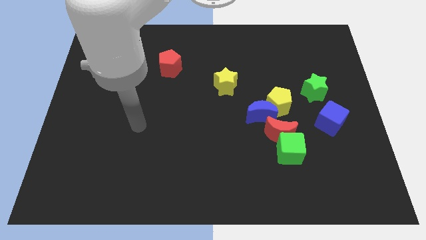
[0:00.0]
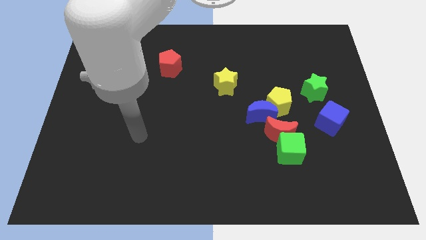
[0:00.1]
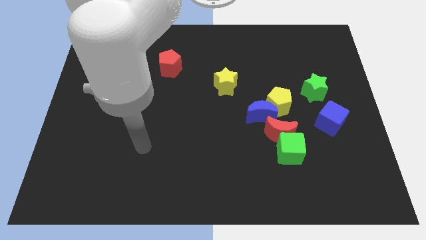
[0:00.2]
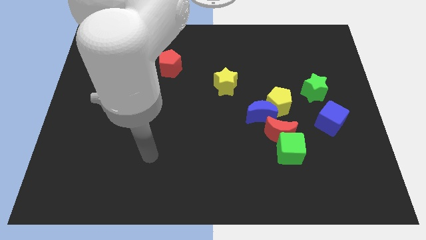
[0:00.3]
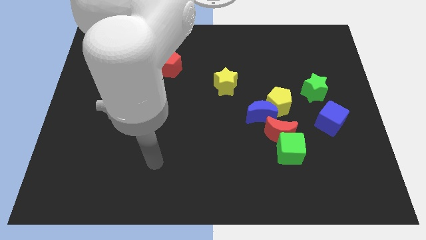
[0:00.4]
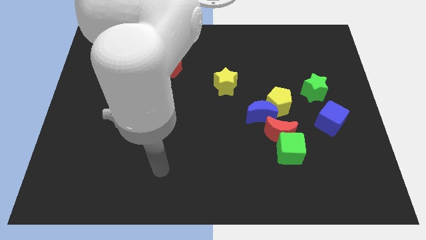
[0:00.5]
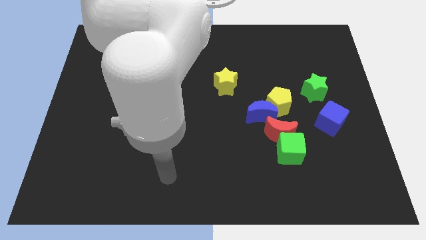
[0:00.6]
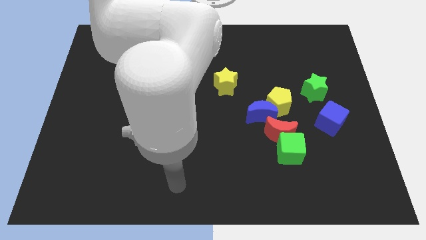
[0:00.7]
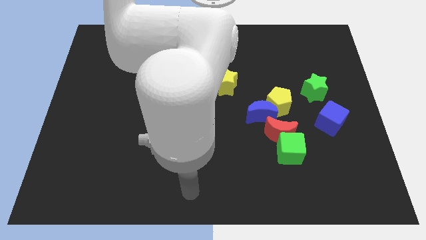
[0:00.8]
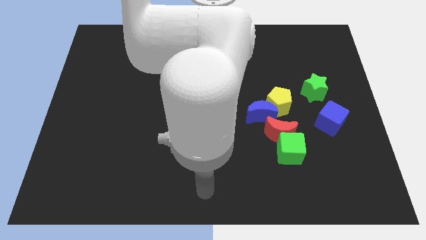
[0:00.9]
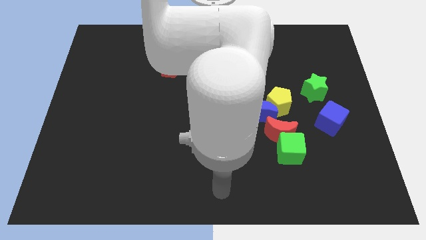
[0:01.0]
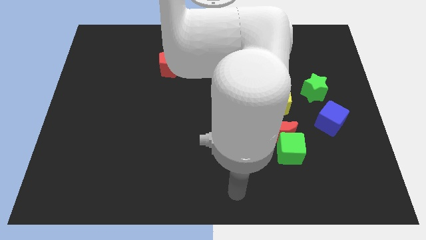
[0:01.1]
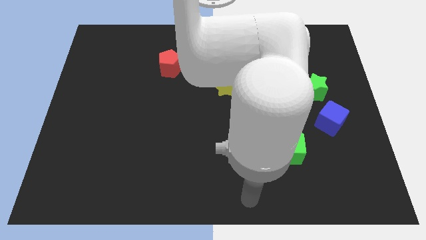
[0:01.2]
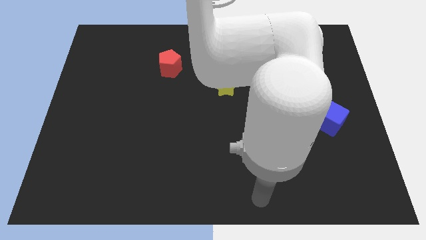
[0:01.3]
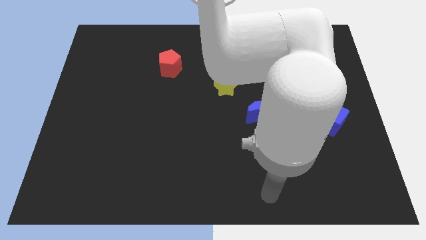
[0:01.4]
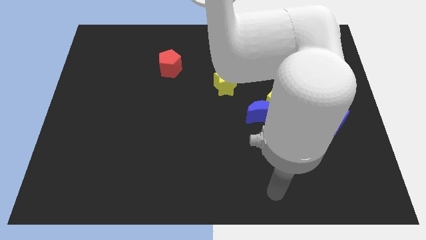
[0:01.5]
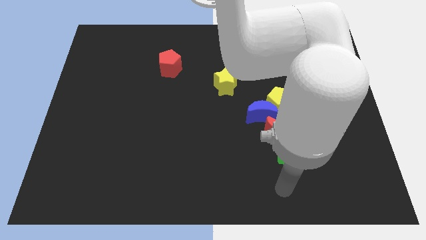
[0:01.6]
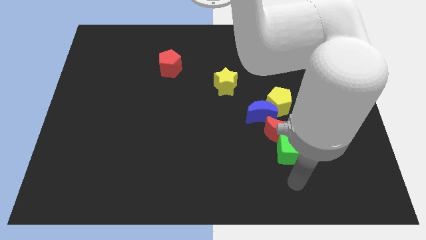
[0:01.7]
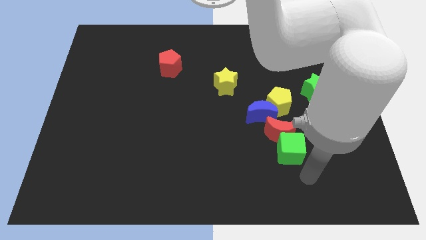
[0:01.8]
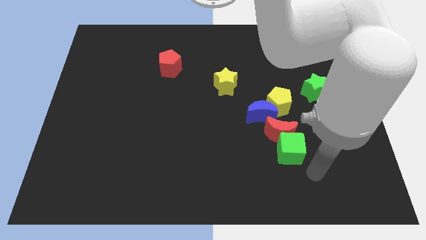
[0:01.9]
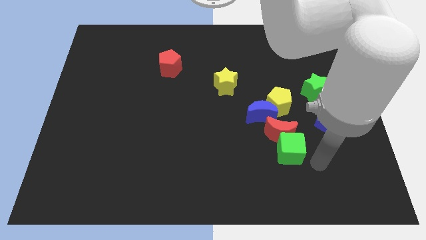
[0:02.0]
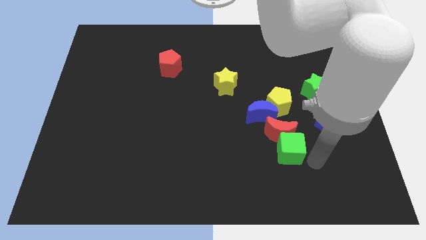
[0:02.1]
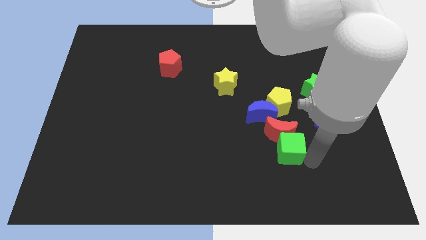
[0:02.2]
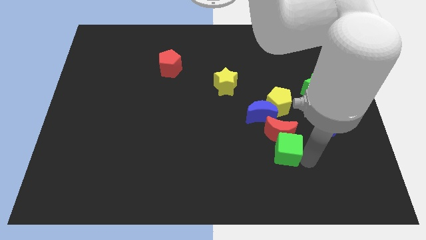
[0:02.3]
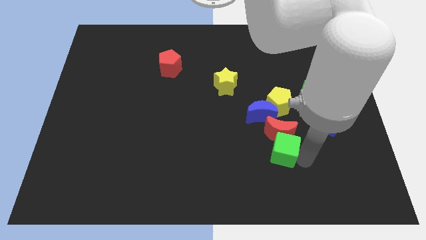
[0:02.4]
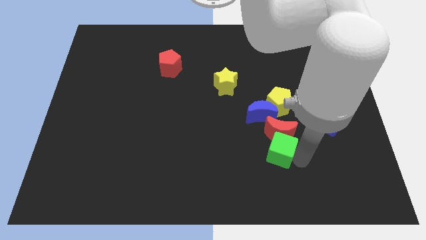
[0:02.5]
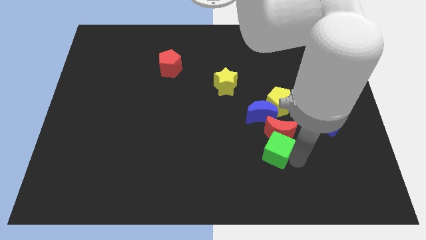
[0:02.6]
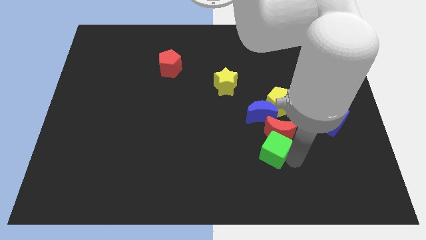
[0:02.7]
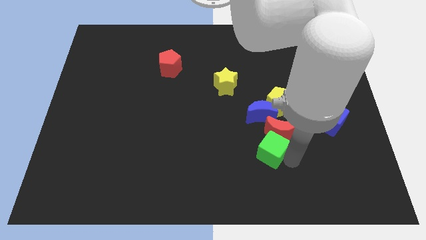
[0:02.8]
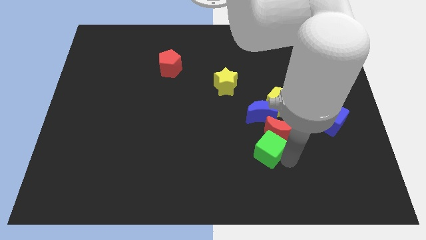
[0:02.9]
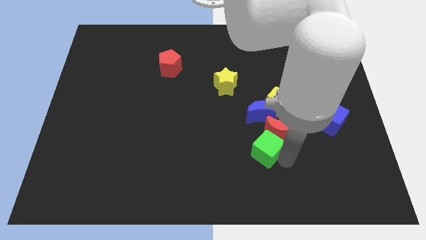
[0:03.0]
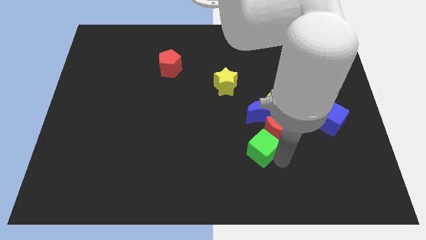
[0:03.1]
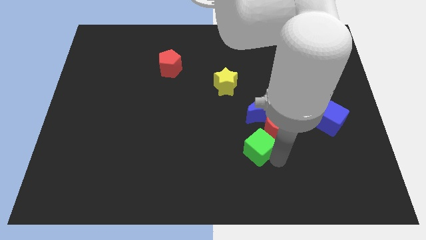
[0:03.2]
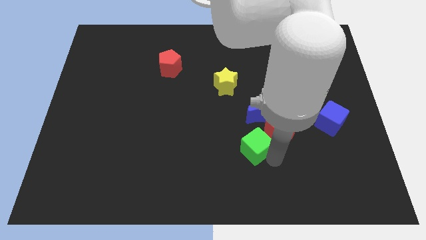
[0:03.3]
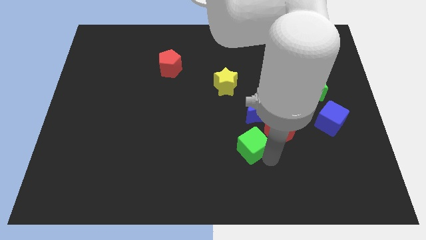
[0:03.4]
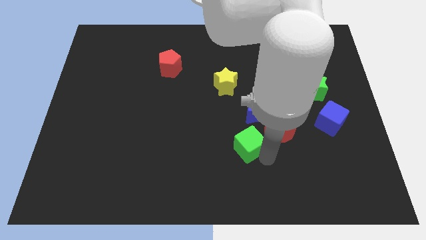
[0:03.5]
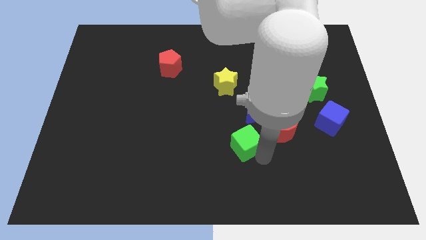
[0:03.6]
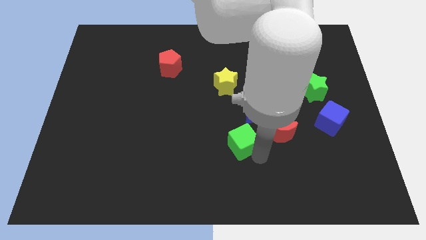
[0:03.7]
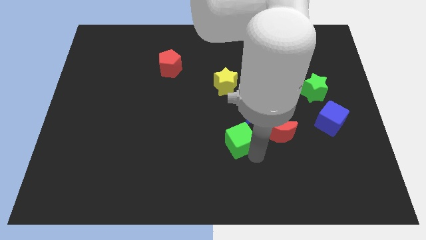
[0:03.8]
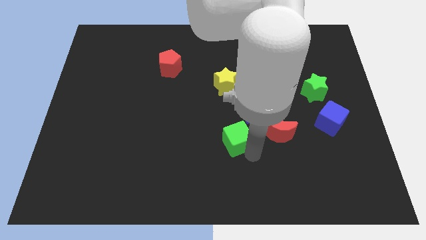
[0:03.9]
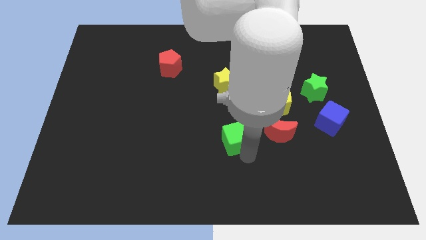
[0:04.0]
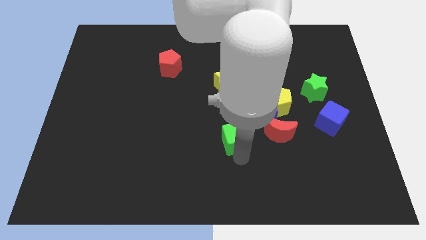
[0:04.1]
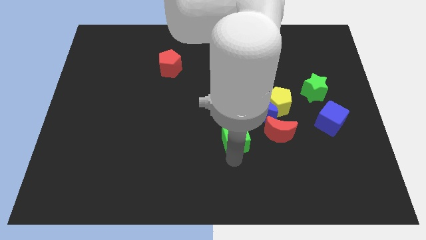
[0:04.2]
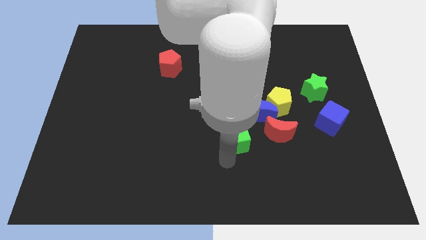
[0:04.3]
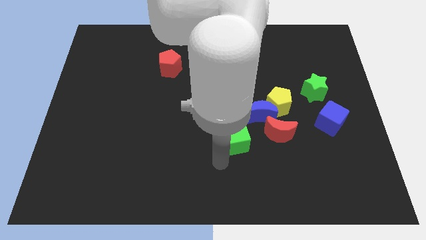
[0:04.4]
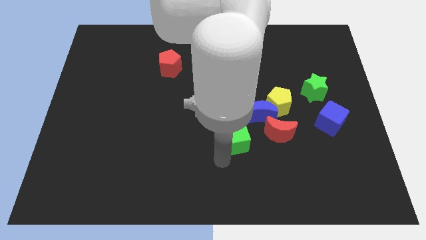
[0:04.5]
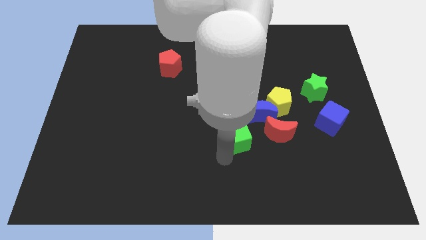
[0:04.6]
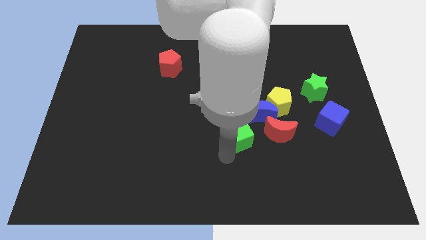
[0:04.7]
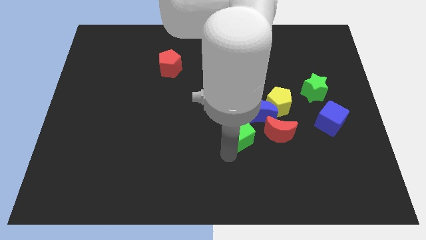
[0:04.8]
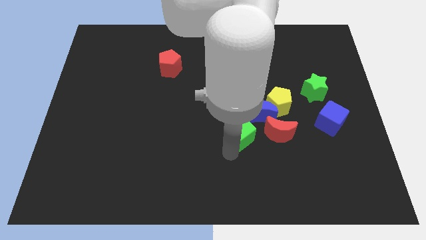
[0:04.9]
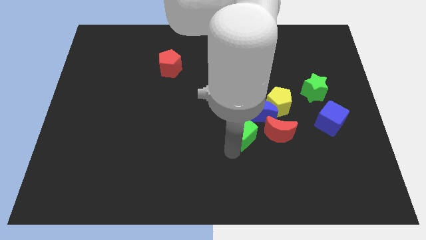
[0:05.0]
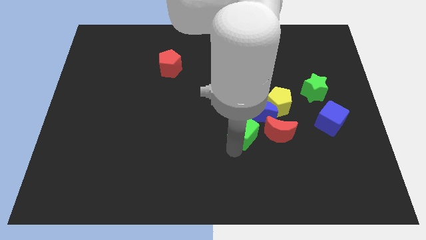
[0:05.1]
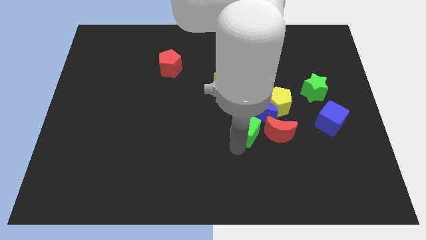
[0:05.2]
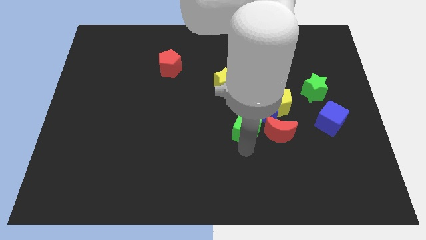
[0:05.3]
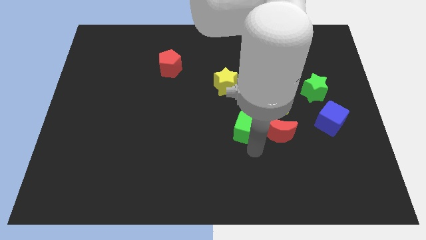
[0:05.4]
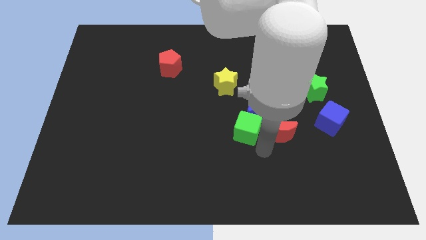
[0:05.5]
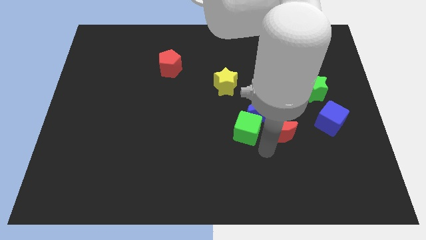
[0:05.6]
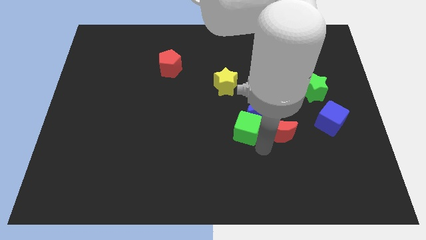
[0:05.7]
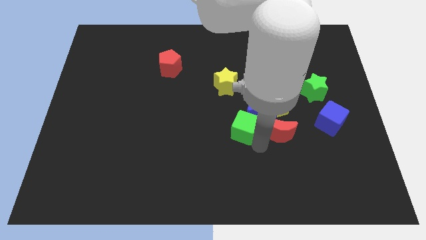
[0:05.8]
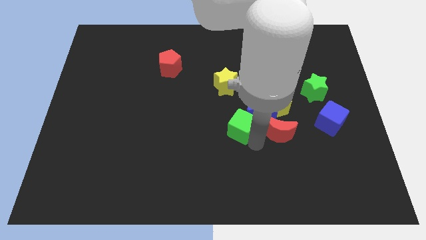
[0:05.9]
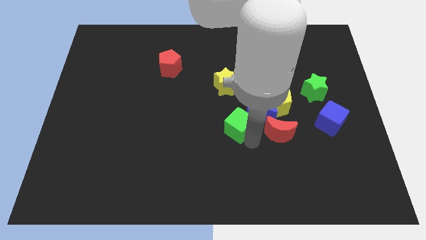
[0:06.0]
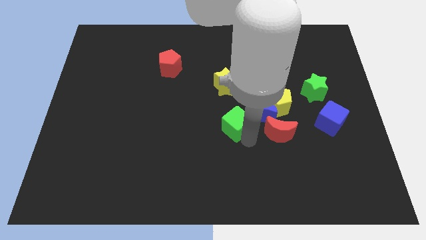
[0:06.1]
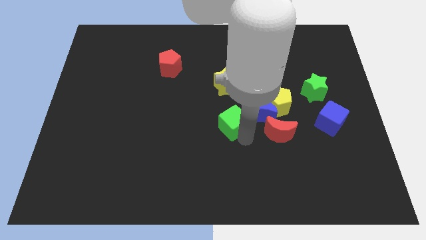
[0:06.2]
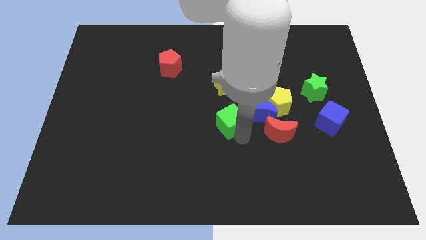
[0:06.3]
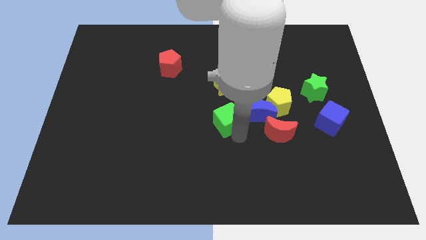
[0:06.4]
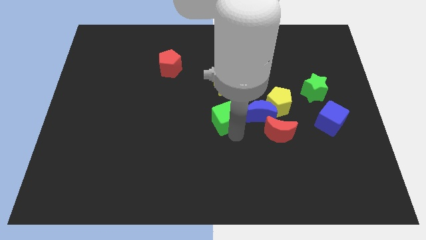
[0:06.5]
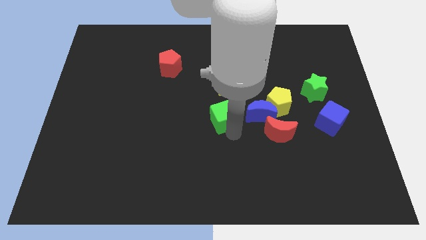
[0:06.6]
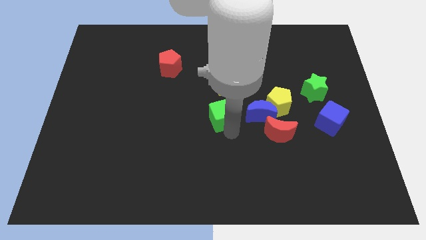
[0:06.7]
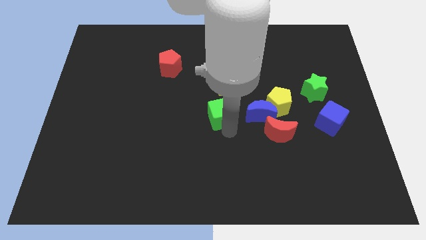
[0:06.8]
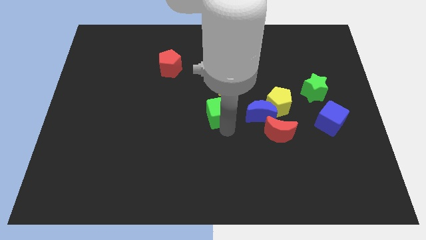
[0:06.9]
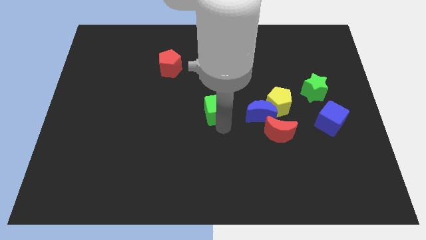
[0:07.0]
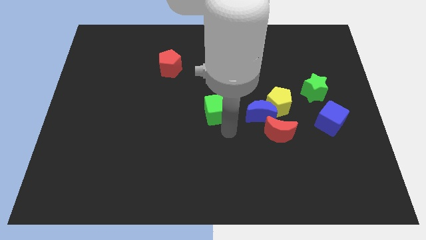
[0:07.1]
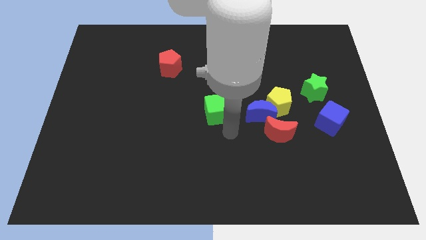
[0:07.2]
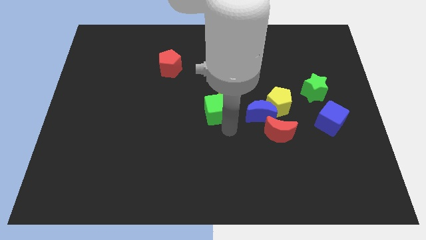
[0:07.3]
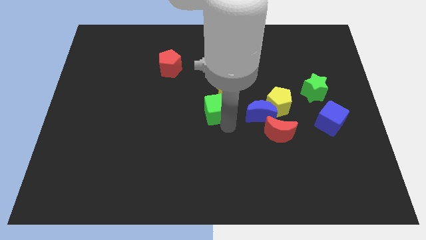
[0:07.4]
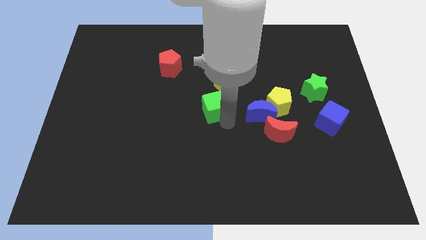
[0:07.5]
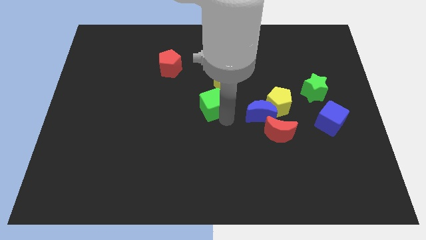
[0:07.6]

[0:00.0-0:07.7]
move the green cube up and left

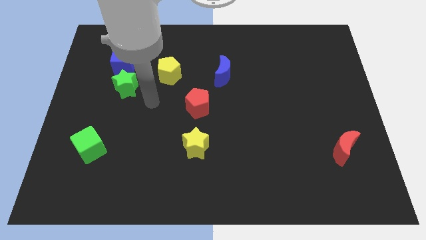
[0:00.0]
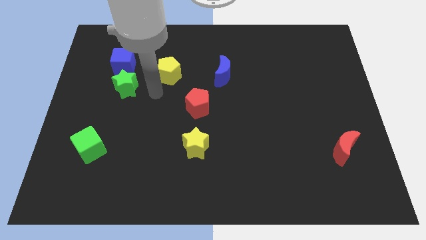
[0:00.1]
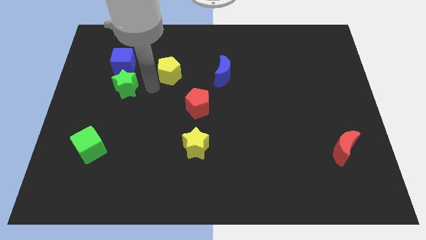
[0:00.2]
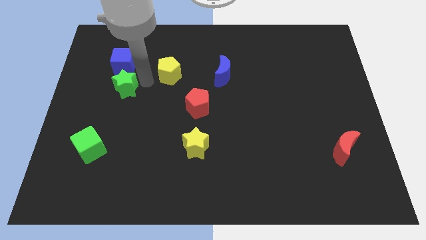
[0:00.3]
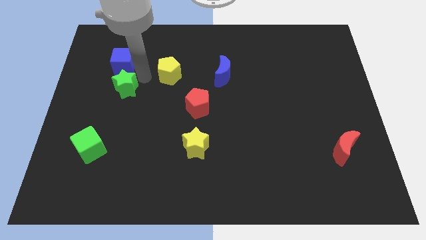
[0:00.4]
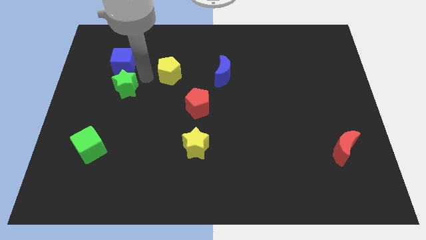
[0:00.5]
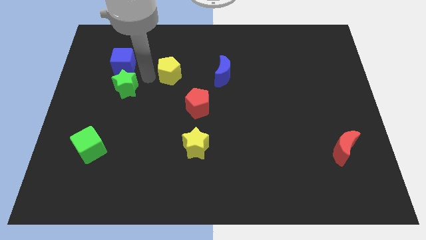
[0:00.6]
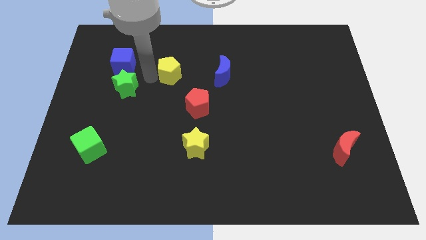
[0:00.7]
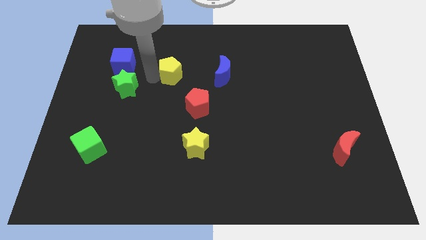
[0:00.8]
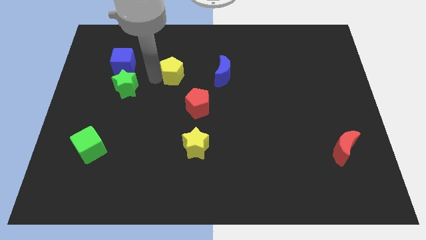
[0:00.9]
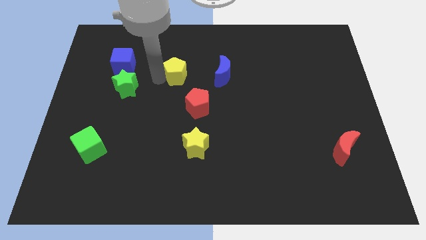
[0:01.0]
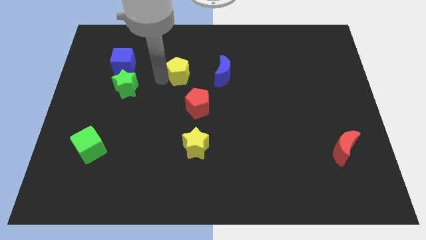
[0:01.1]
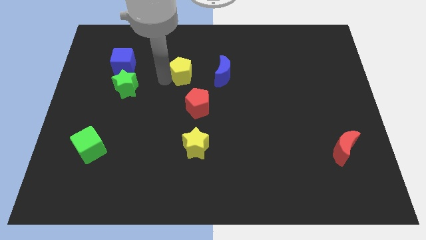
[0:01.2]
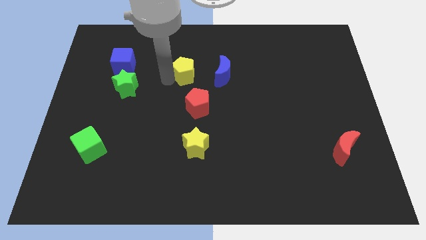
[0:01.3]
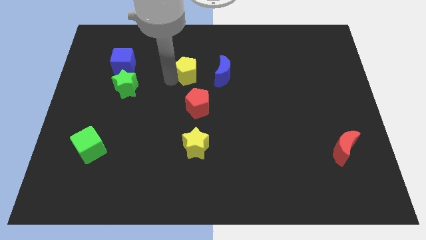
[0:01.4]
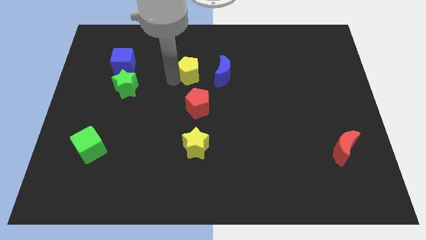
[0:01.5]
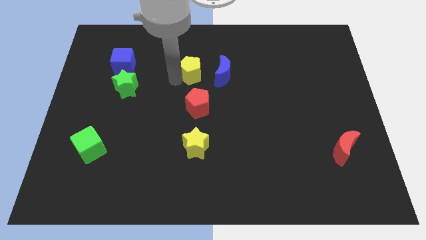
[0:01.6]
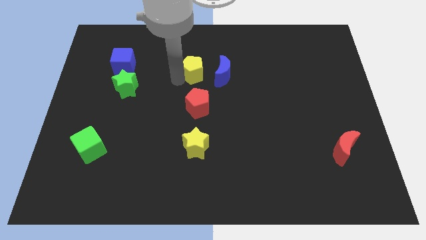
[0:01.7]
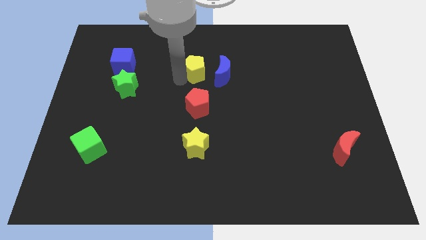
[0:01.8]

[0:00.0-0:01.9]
slightly move the yellow pentagon right
